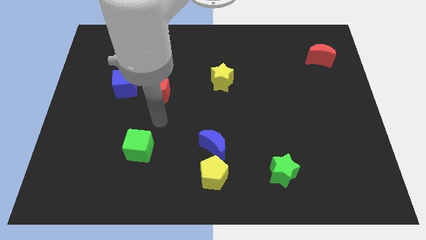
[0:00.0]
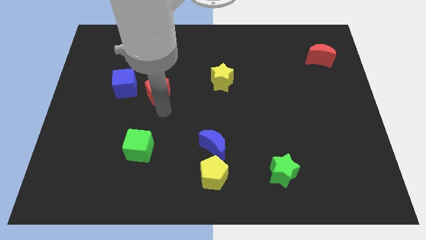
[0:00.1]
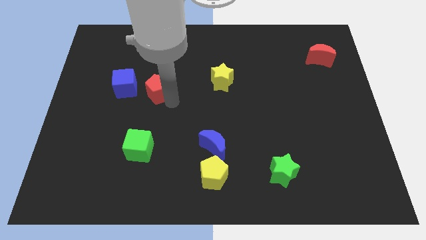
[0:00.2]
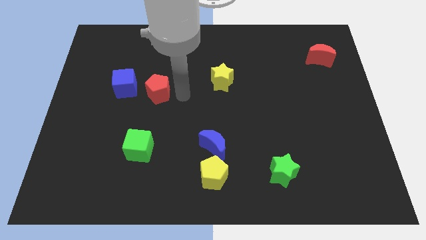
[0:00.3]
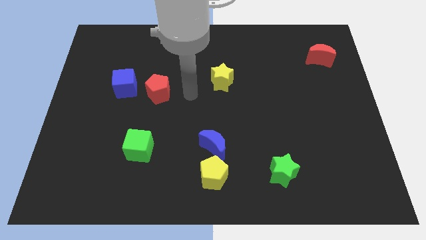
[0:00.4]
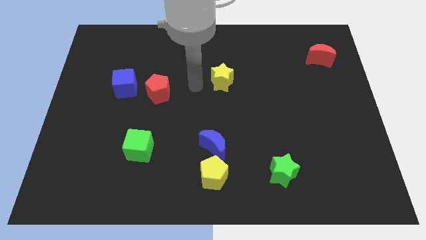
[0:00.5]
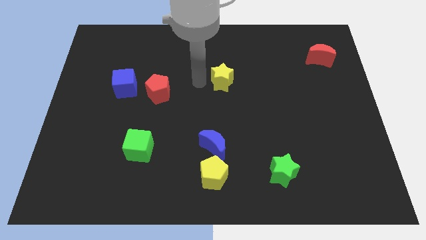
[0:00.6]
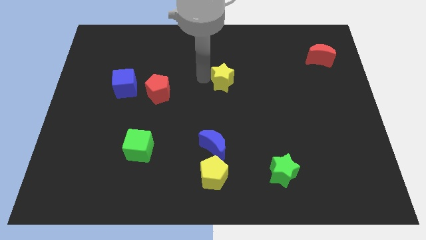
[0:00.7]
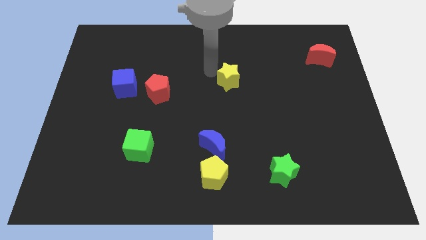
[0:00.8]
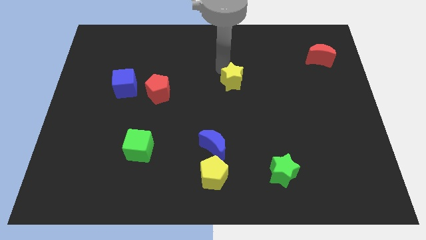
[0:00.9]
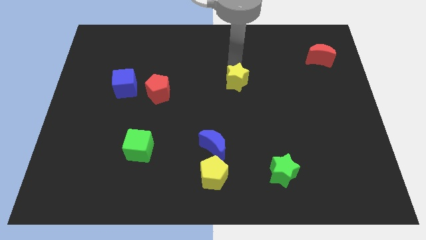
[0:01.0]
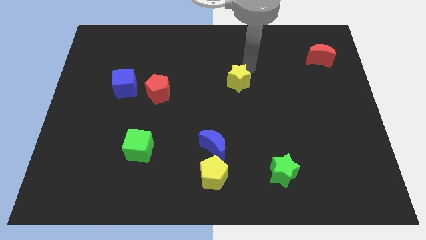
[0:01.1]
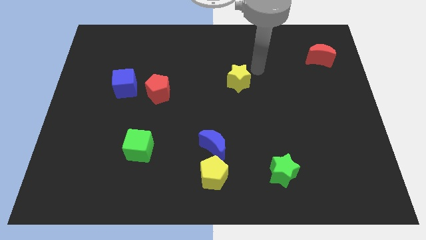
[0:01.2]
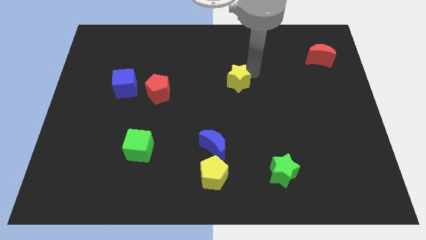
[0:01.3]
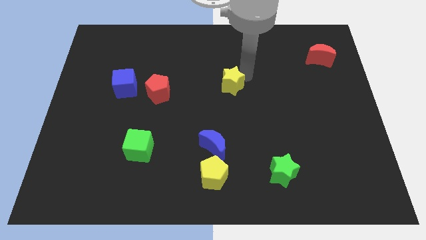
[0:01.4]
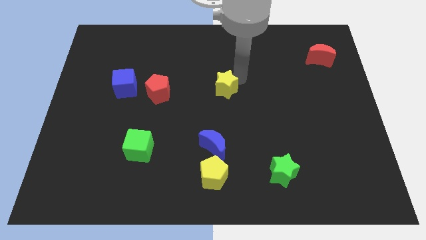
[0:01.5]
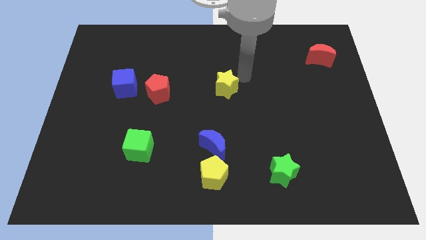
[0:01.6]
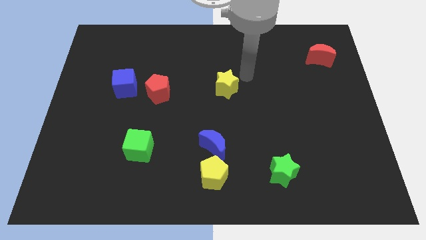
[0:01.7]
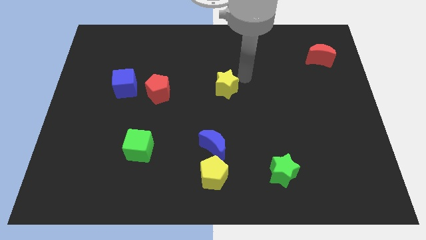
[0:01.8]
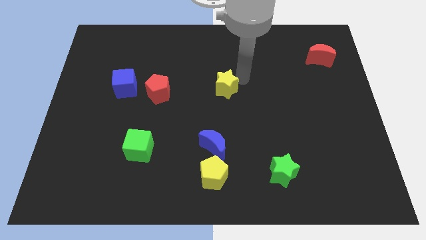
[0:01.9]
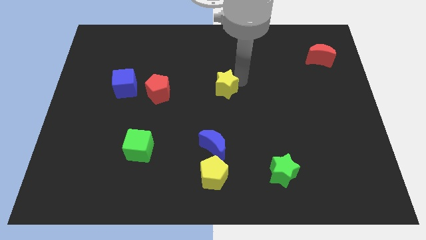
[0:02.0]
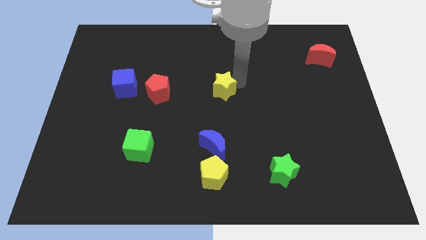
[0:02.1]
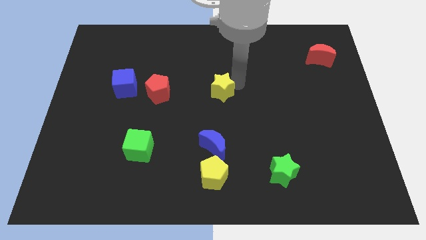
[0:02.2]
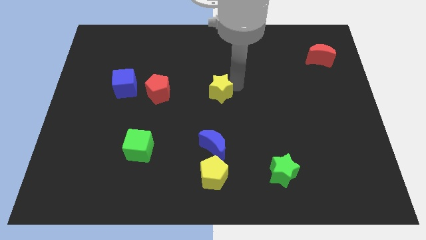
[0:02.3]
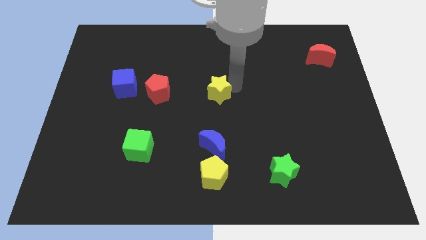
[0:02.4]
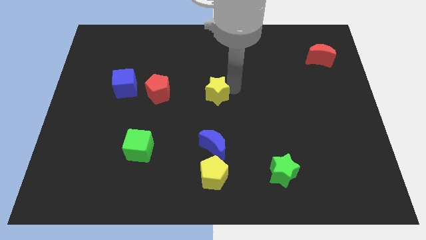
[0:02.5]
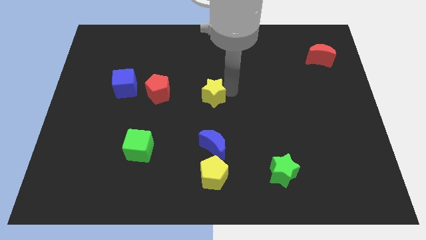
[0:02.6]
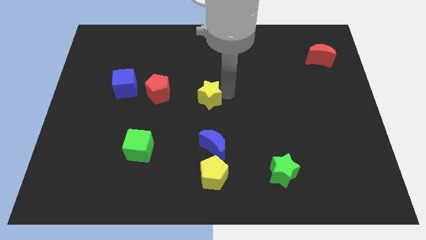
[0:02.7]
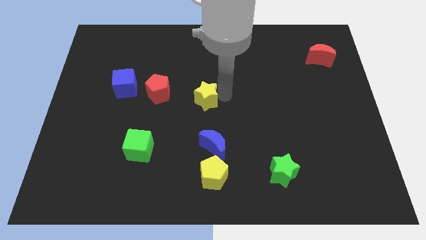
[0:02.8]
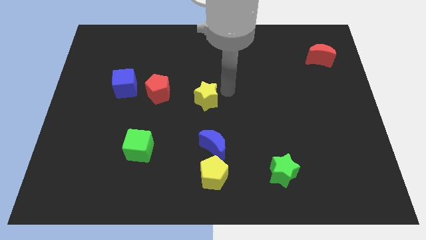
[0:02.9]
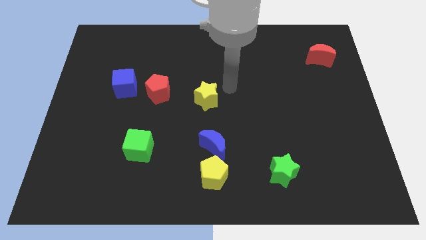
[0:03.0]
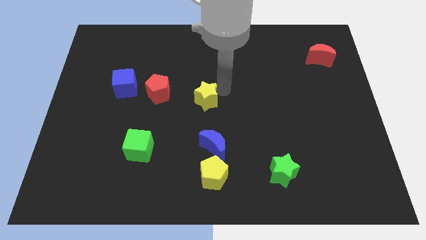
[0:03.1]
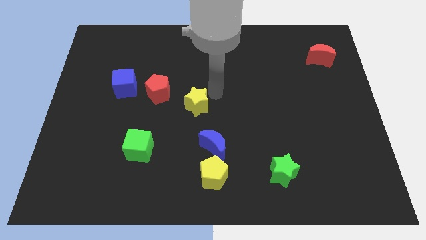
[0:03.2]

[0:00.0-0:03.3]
move the yellow star a little bit downwards and to the left

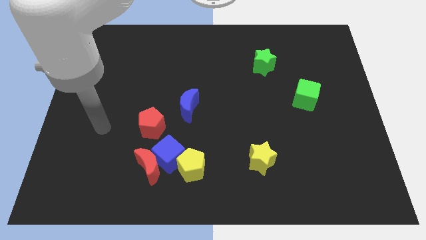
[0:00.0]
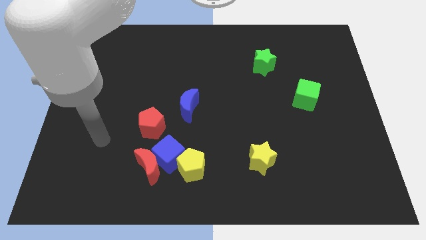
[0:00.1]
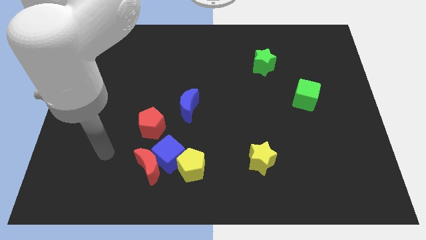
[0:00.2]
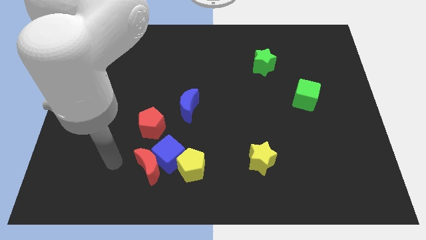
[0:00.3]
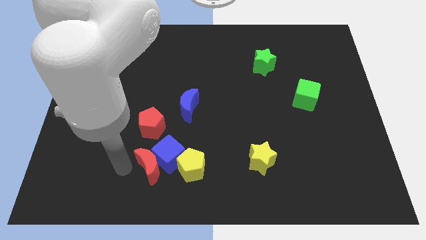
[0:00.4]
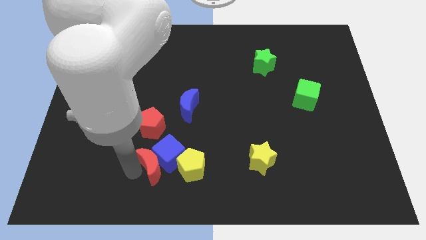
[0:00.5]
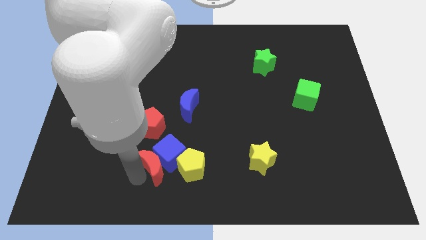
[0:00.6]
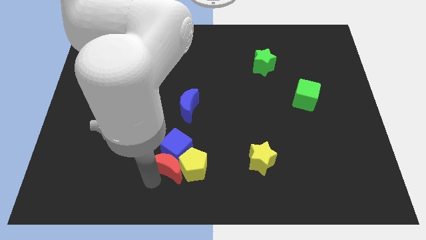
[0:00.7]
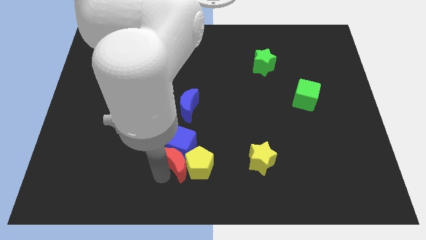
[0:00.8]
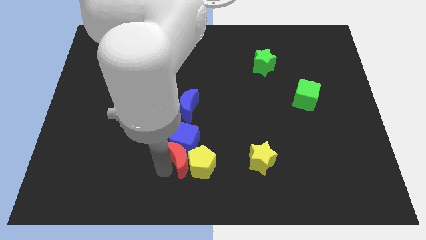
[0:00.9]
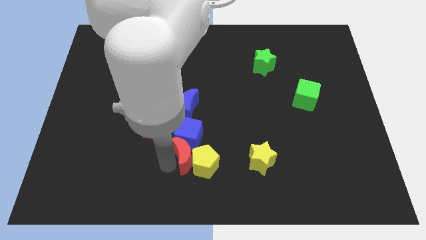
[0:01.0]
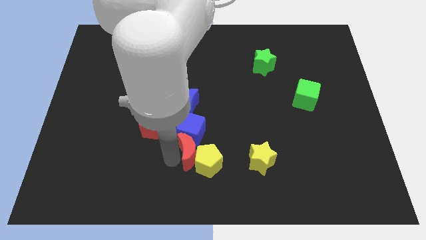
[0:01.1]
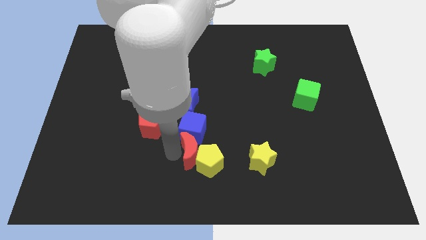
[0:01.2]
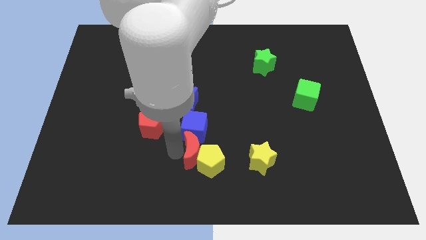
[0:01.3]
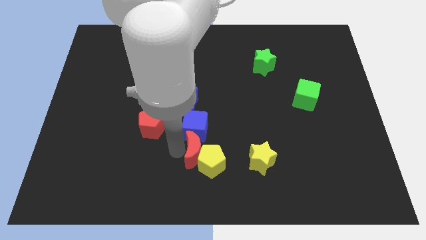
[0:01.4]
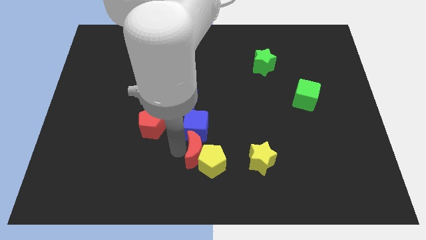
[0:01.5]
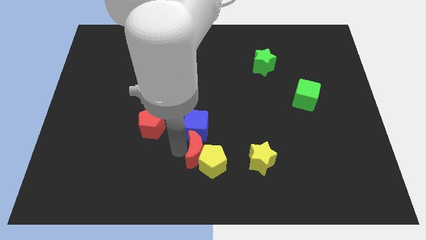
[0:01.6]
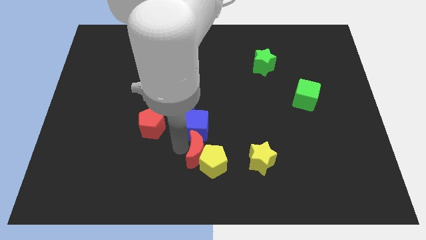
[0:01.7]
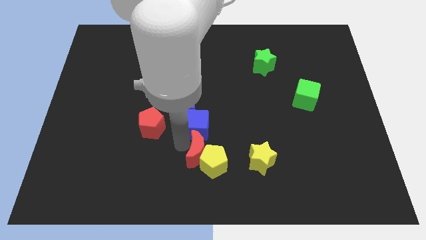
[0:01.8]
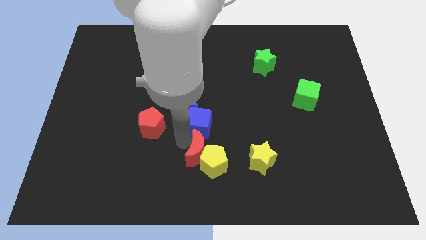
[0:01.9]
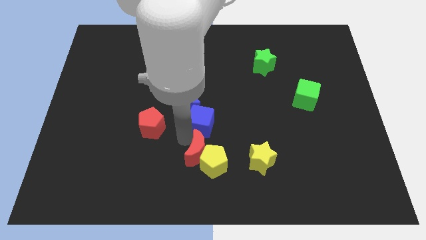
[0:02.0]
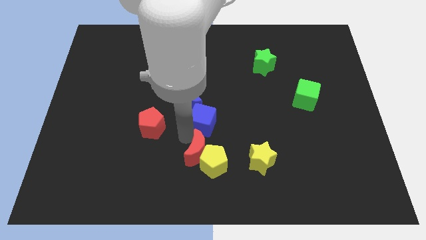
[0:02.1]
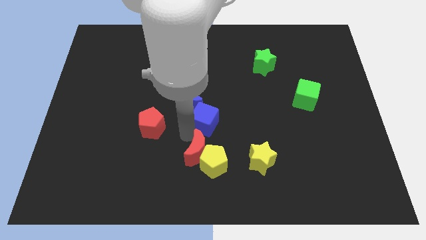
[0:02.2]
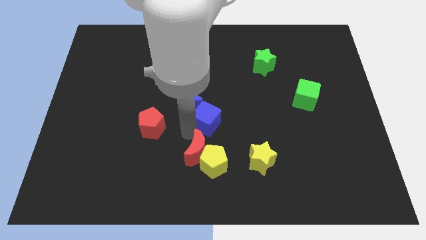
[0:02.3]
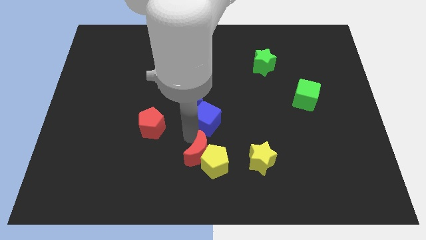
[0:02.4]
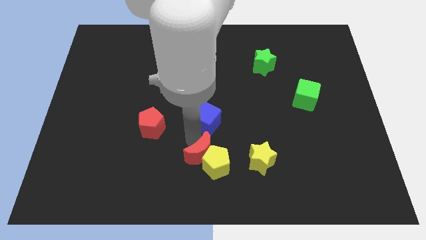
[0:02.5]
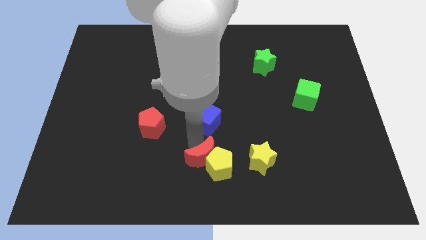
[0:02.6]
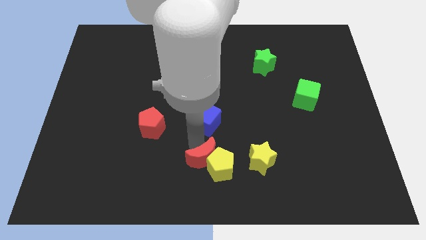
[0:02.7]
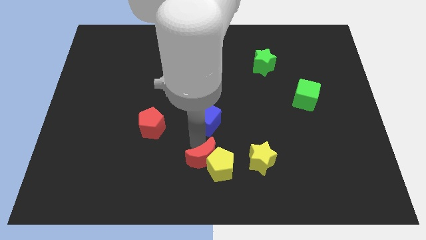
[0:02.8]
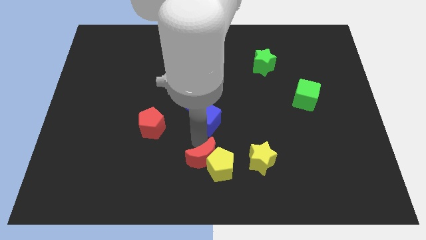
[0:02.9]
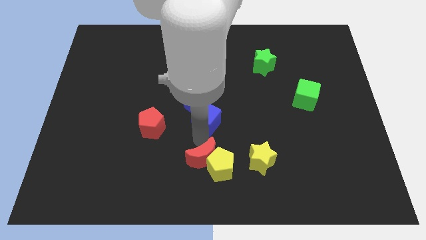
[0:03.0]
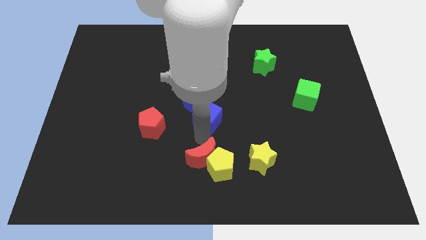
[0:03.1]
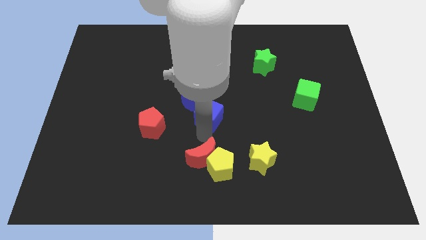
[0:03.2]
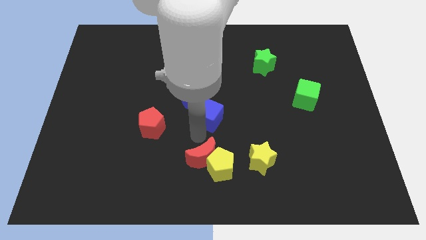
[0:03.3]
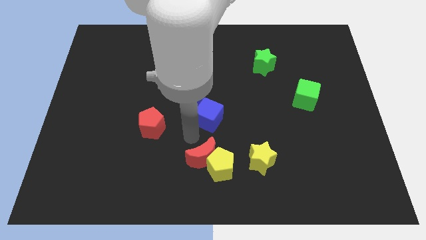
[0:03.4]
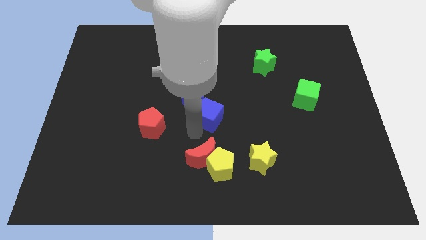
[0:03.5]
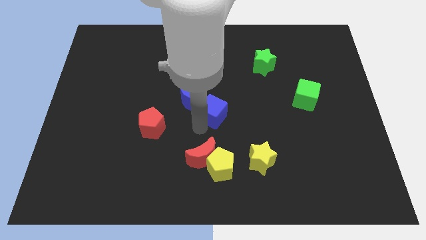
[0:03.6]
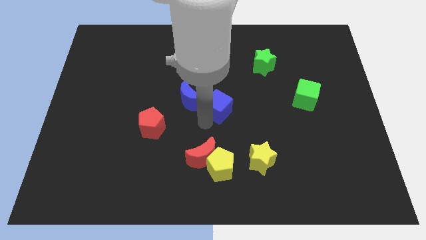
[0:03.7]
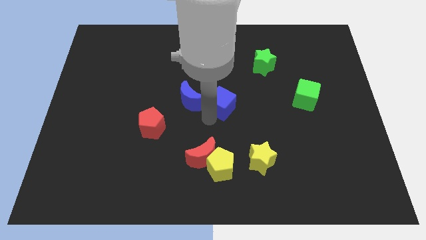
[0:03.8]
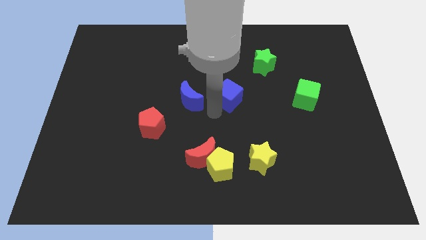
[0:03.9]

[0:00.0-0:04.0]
push the blue cube up and to the right diagonally

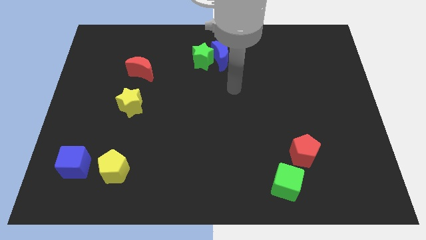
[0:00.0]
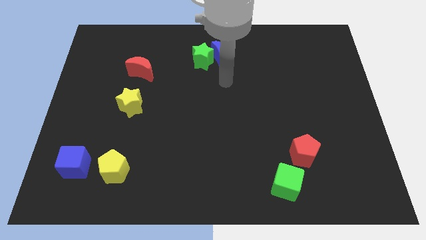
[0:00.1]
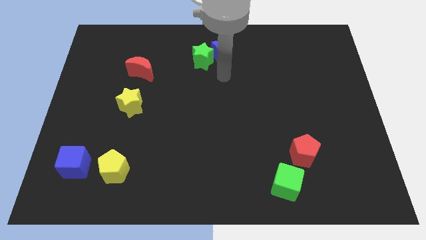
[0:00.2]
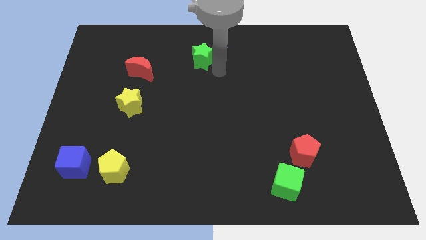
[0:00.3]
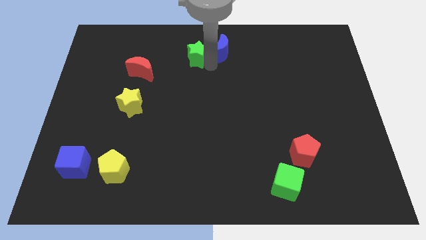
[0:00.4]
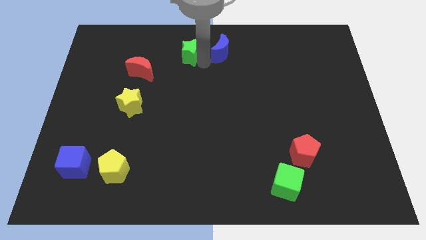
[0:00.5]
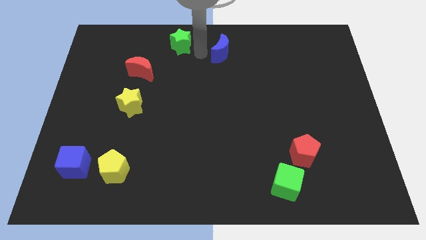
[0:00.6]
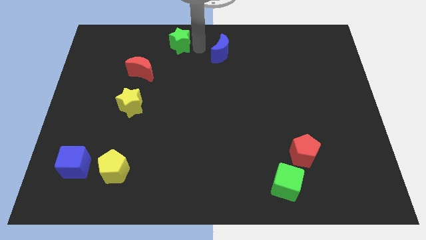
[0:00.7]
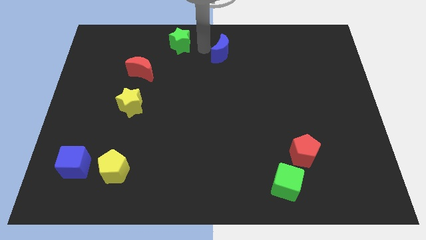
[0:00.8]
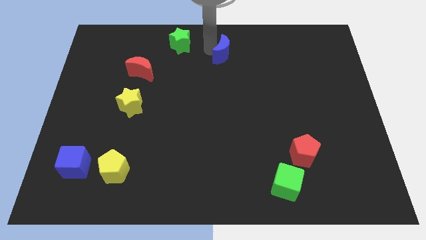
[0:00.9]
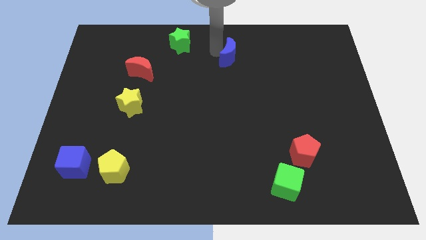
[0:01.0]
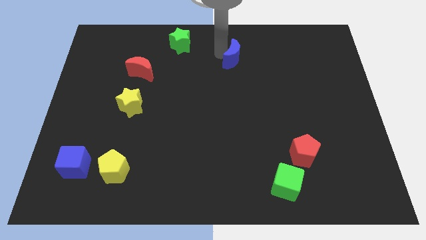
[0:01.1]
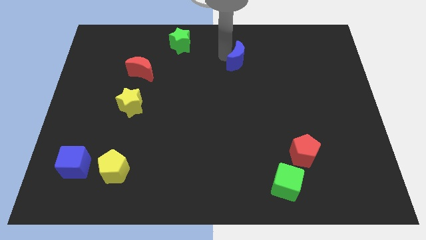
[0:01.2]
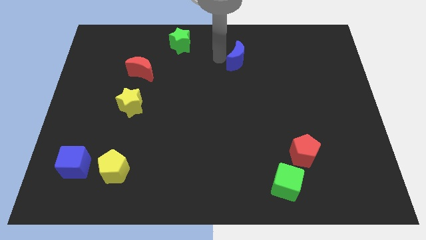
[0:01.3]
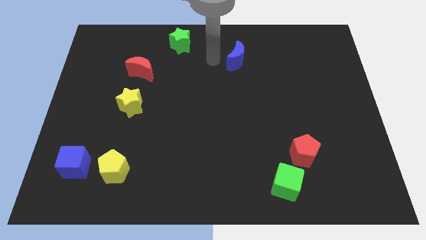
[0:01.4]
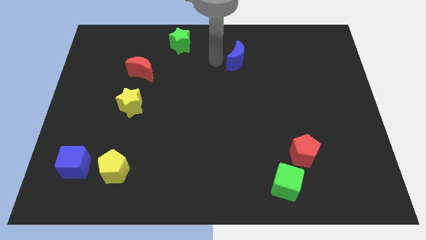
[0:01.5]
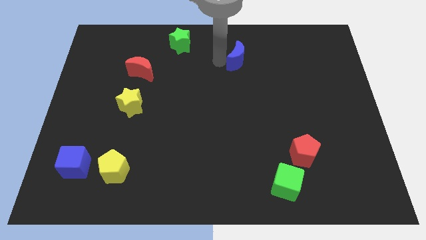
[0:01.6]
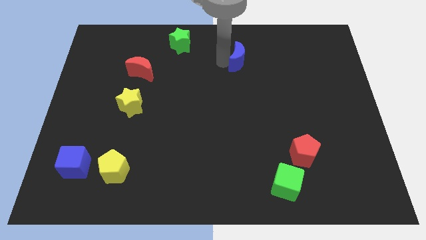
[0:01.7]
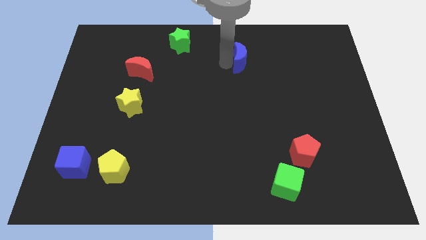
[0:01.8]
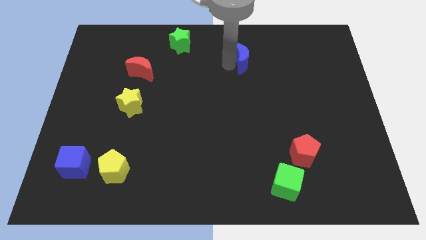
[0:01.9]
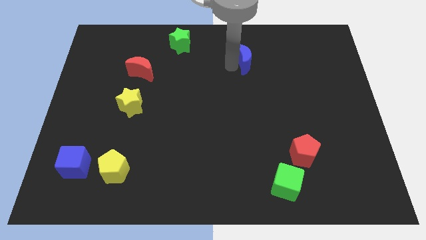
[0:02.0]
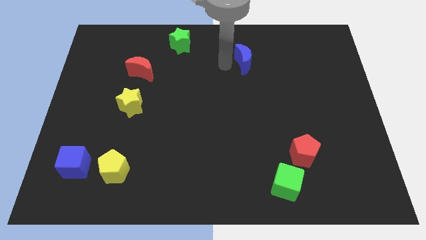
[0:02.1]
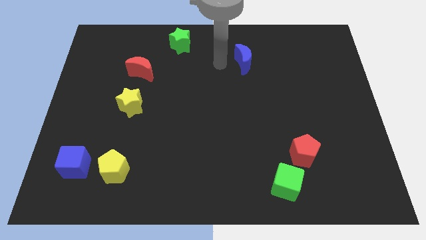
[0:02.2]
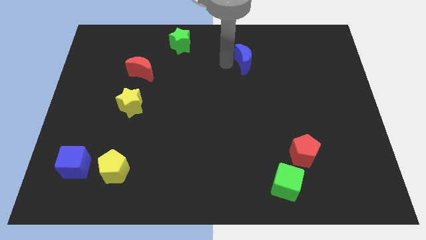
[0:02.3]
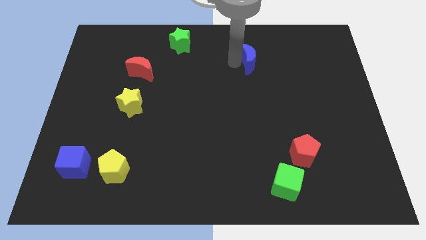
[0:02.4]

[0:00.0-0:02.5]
push the blue moon to the right a little bit
